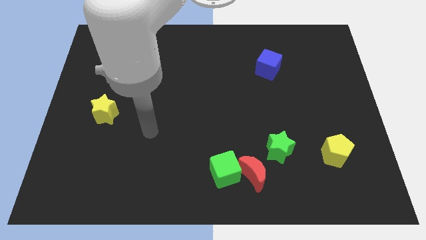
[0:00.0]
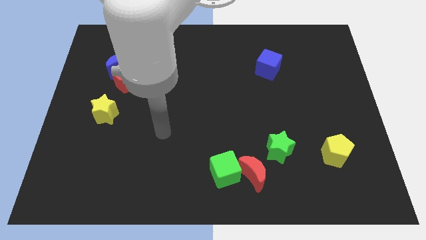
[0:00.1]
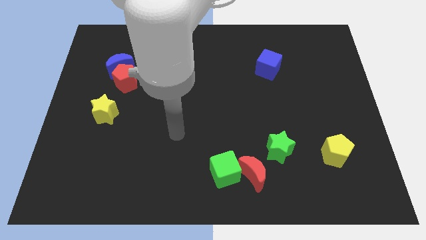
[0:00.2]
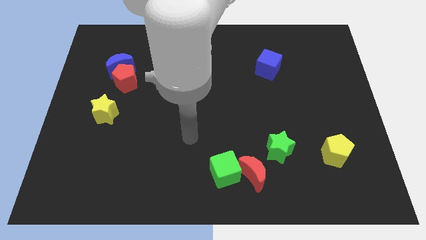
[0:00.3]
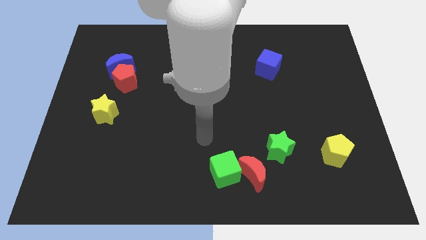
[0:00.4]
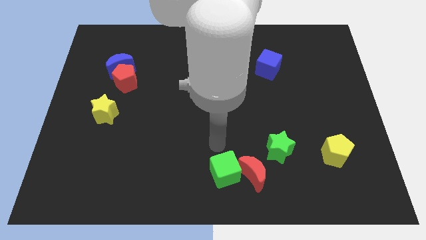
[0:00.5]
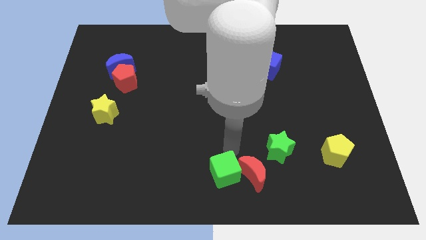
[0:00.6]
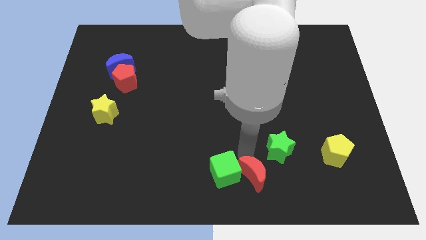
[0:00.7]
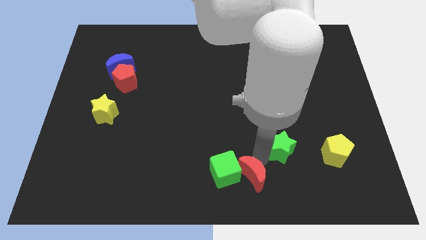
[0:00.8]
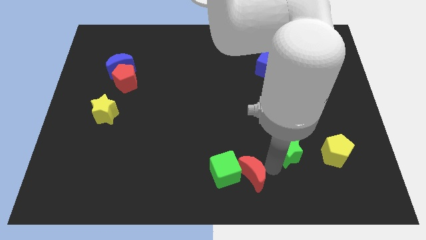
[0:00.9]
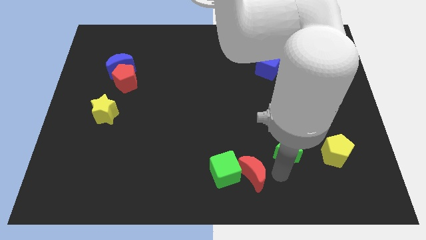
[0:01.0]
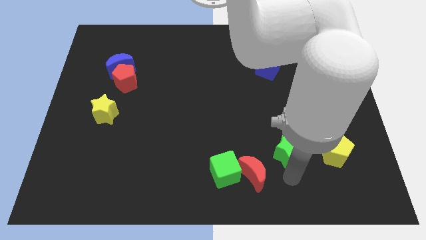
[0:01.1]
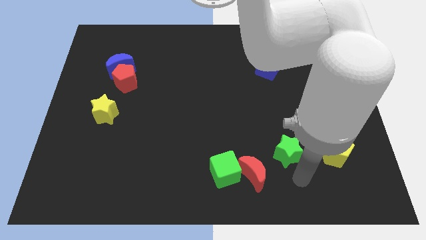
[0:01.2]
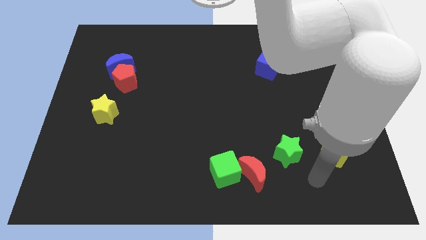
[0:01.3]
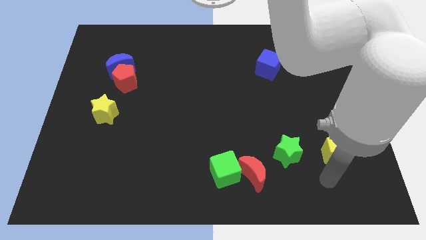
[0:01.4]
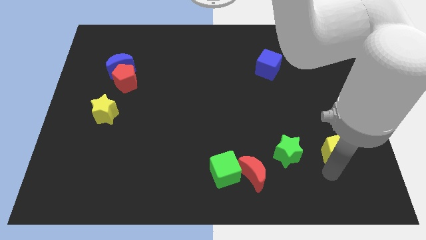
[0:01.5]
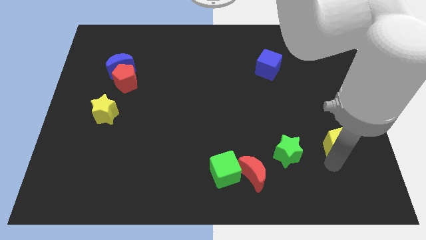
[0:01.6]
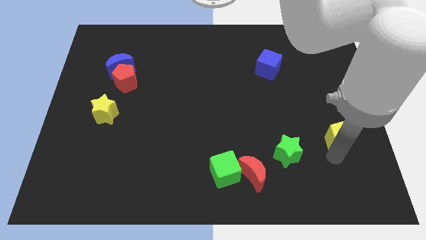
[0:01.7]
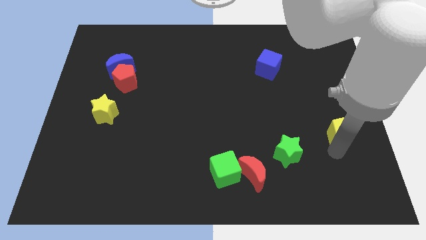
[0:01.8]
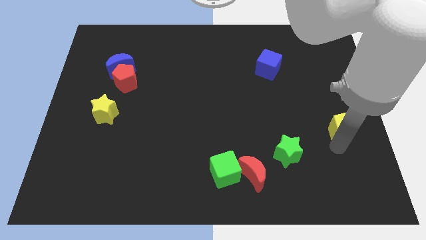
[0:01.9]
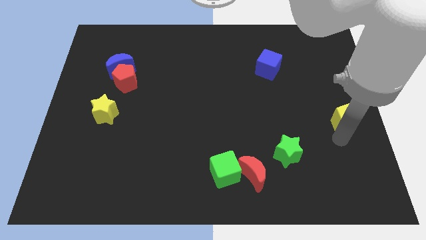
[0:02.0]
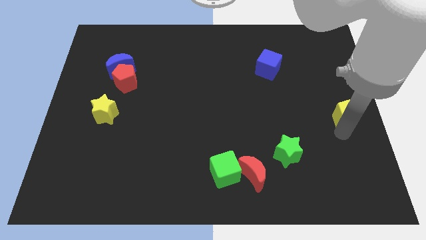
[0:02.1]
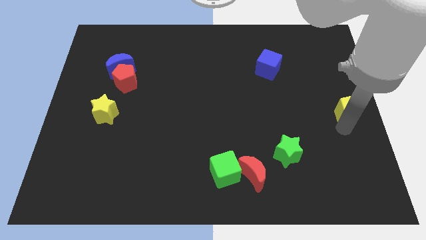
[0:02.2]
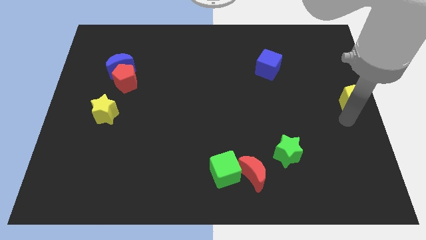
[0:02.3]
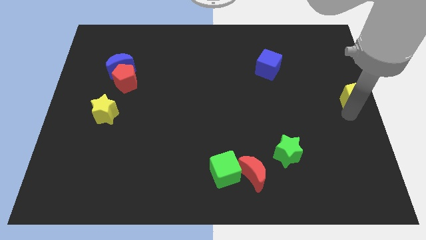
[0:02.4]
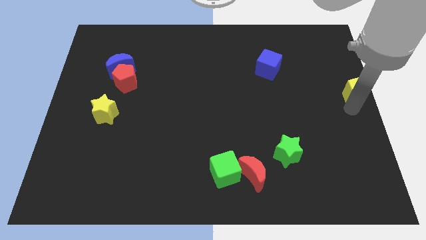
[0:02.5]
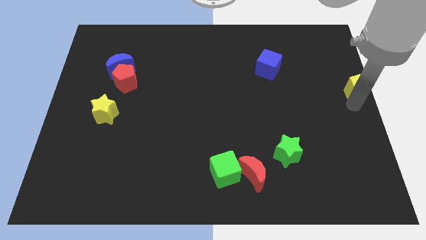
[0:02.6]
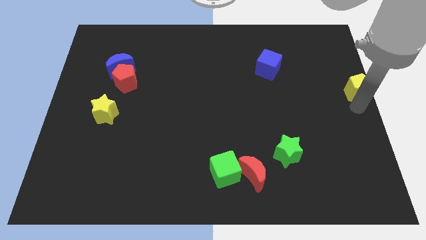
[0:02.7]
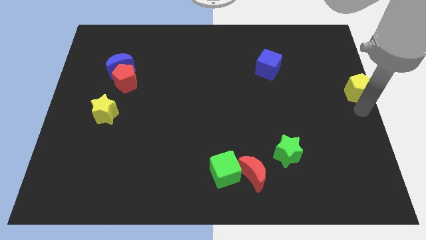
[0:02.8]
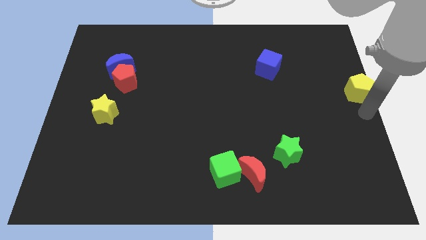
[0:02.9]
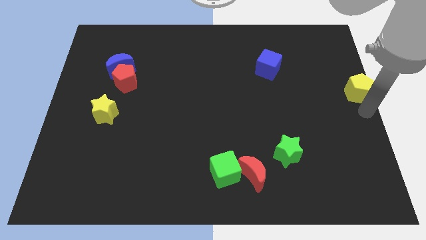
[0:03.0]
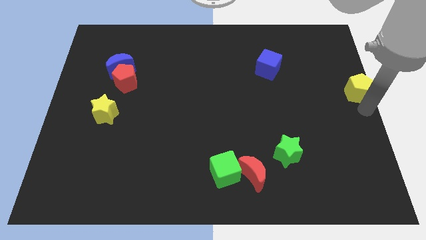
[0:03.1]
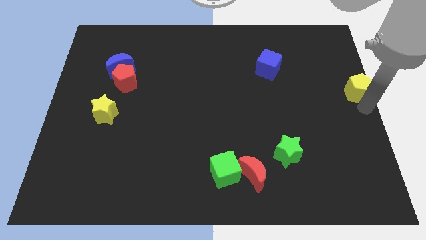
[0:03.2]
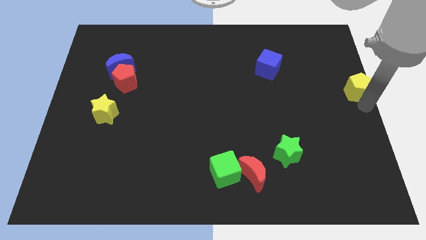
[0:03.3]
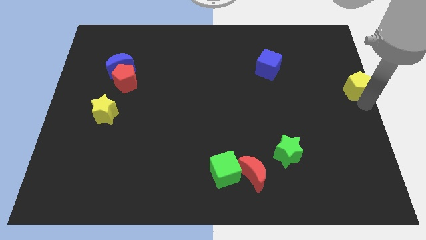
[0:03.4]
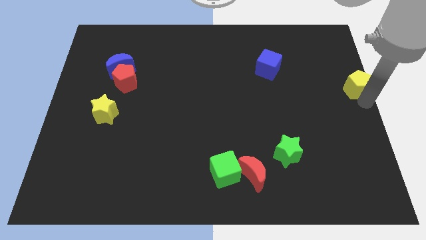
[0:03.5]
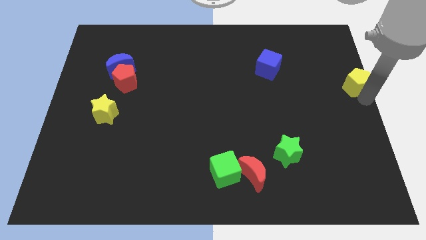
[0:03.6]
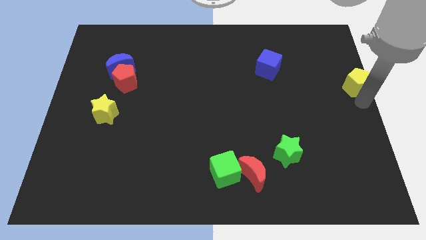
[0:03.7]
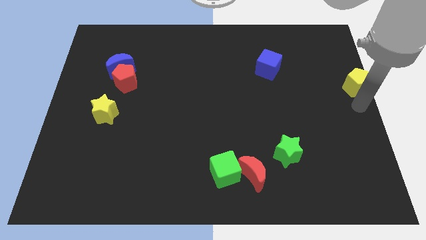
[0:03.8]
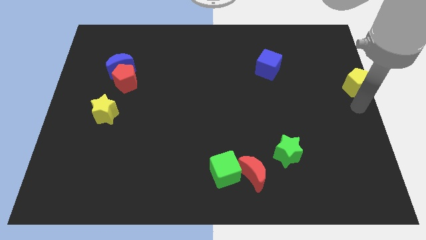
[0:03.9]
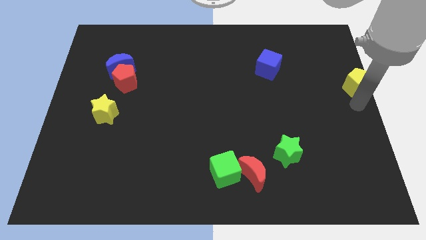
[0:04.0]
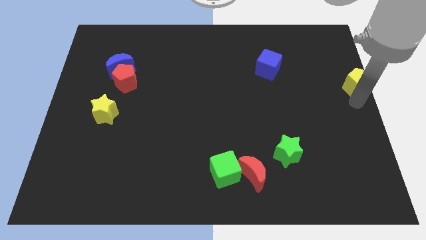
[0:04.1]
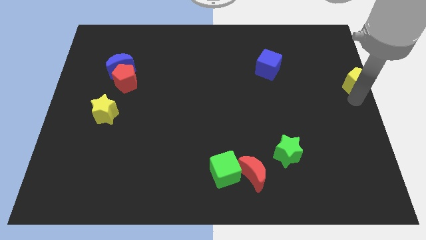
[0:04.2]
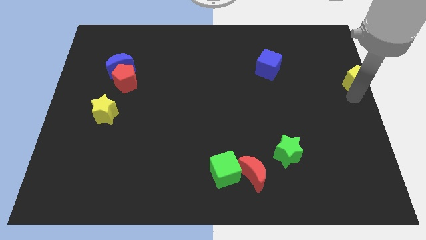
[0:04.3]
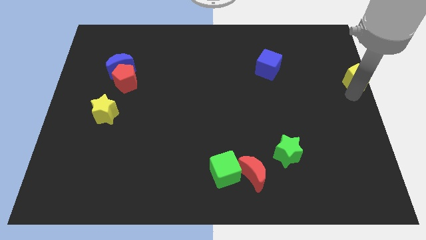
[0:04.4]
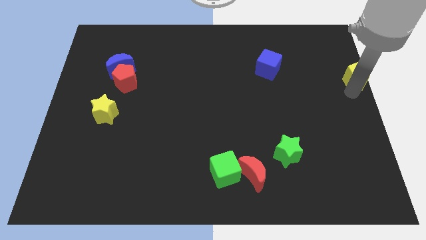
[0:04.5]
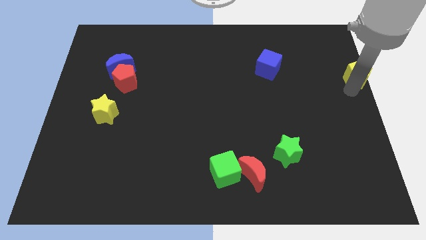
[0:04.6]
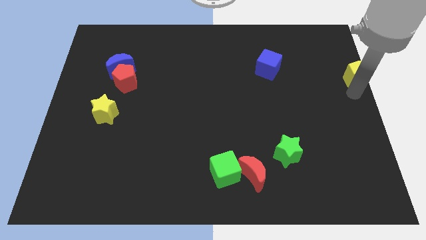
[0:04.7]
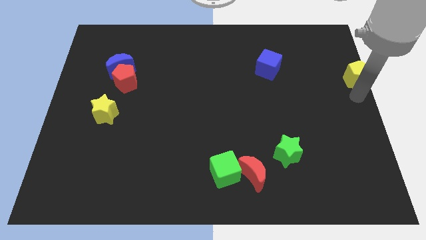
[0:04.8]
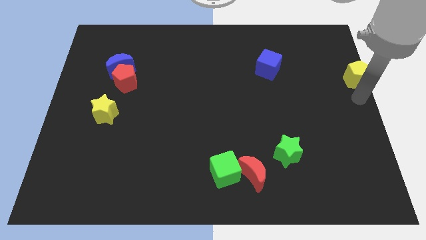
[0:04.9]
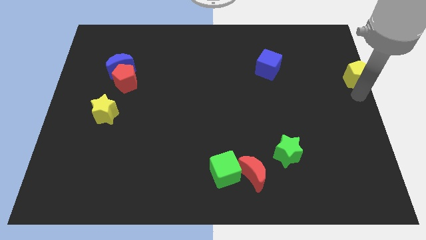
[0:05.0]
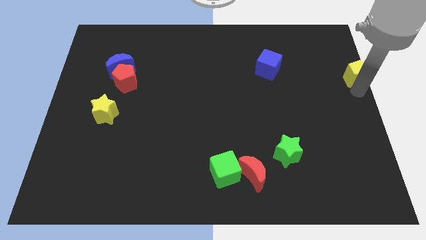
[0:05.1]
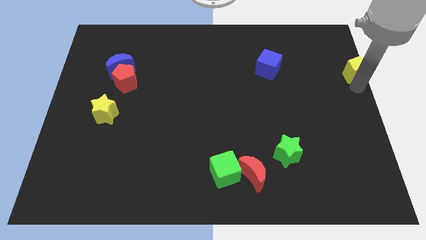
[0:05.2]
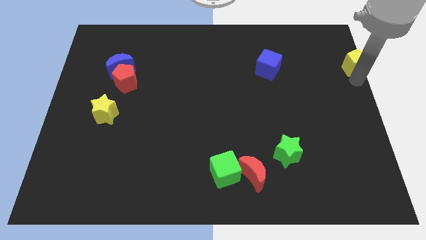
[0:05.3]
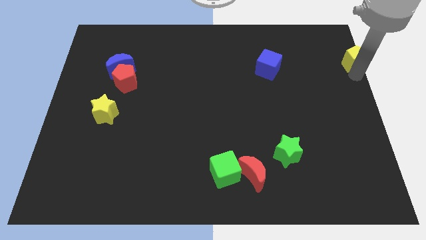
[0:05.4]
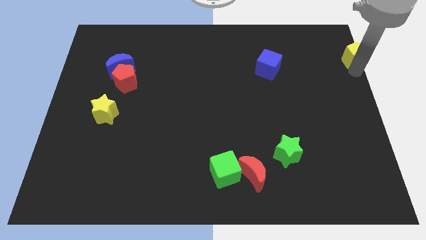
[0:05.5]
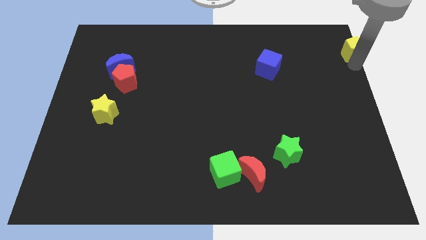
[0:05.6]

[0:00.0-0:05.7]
put the yellow pentagon to the top right

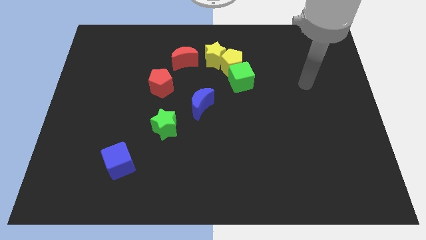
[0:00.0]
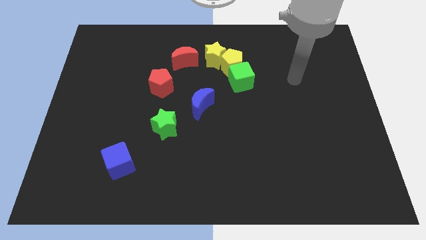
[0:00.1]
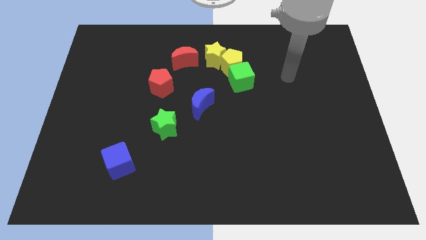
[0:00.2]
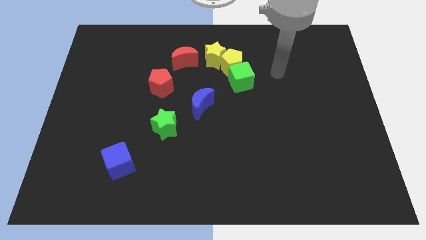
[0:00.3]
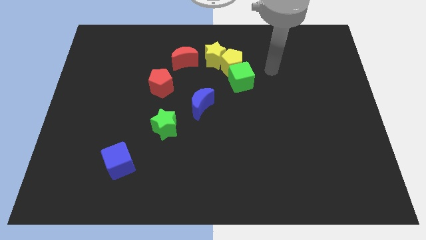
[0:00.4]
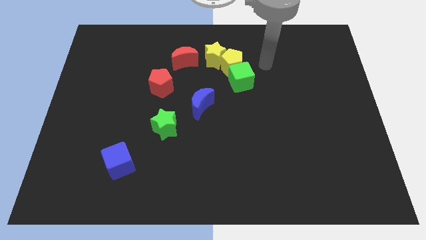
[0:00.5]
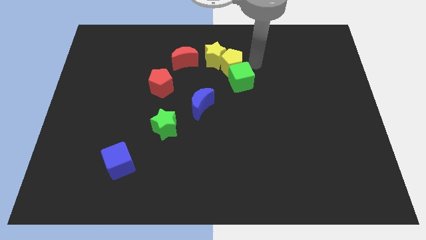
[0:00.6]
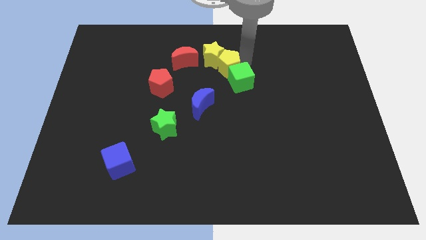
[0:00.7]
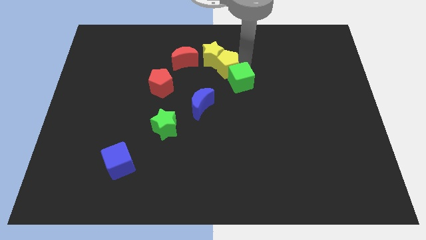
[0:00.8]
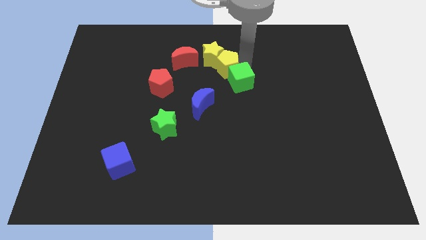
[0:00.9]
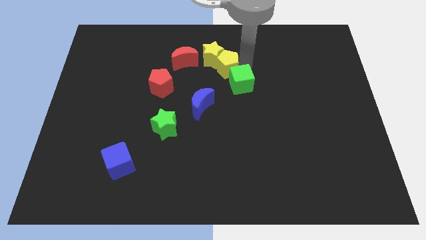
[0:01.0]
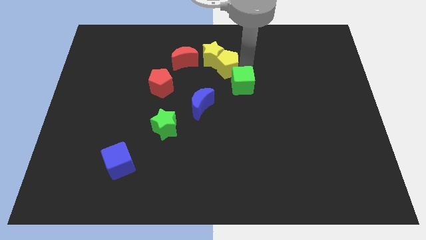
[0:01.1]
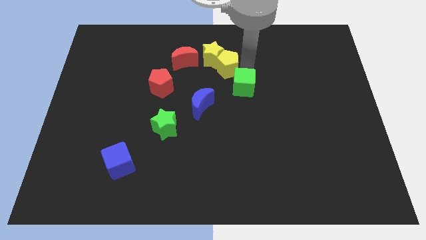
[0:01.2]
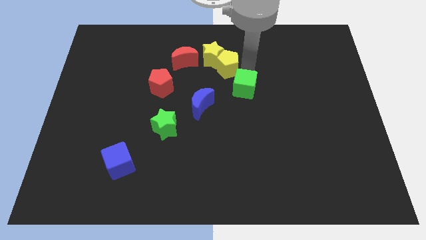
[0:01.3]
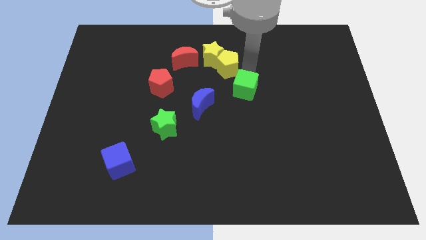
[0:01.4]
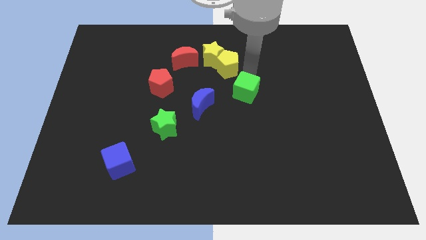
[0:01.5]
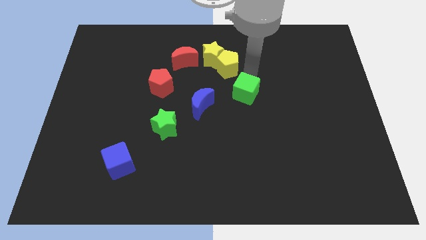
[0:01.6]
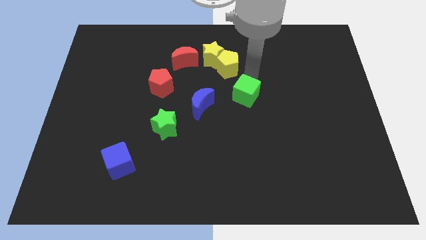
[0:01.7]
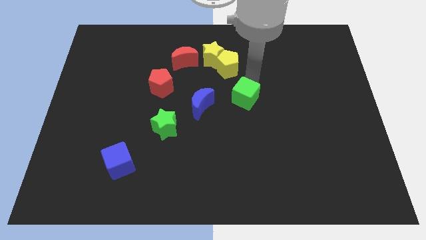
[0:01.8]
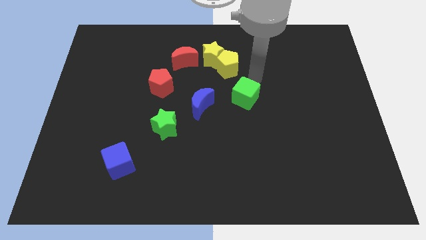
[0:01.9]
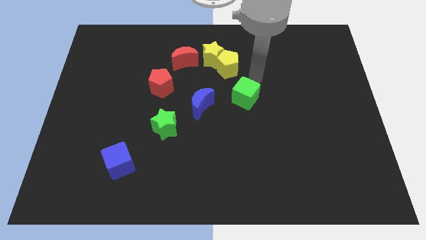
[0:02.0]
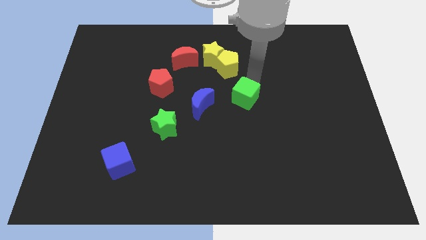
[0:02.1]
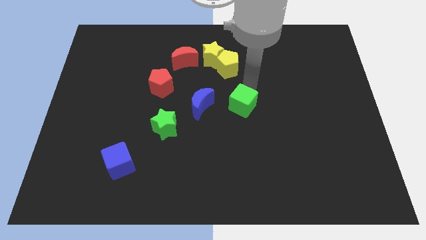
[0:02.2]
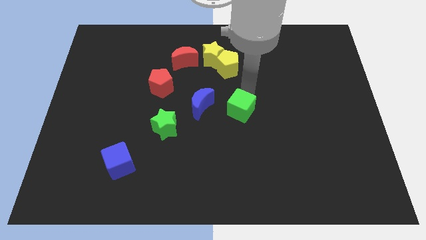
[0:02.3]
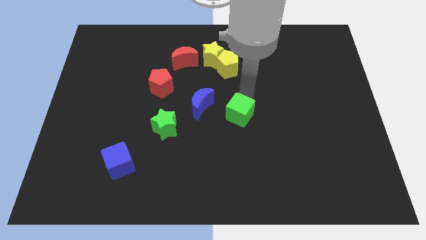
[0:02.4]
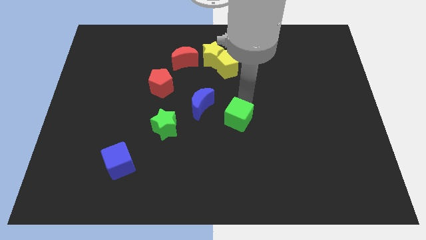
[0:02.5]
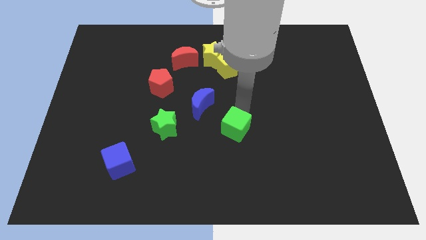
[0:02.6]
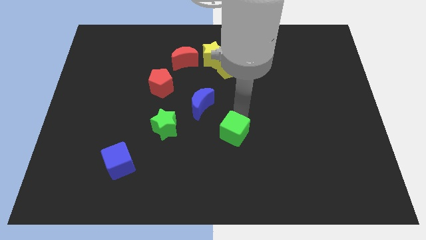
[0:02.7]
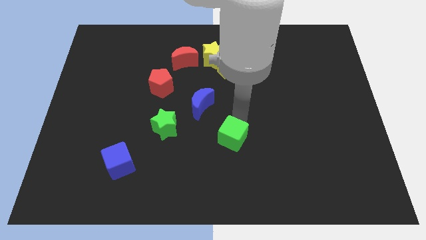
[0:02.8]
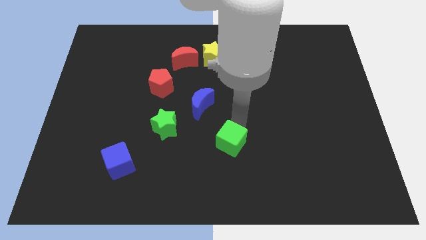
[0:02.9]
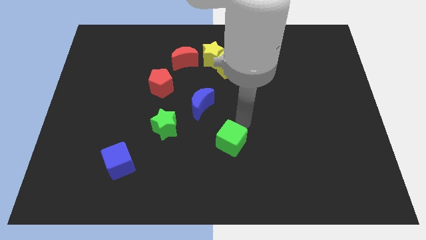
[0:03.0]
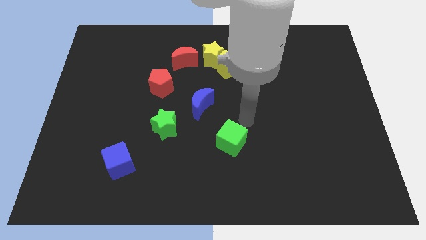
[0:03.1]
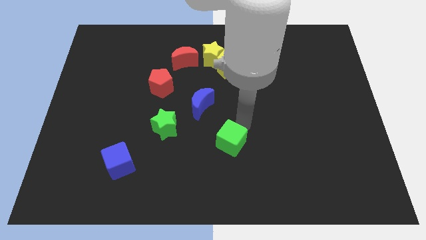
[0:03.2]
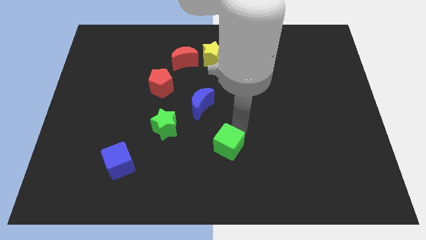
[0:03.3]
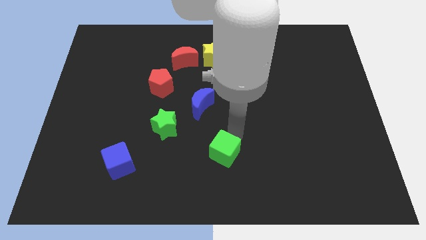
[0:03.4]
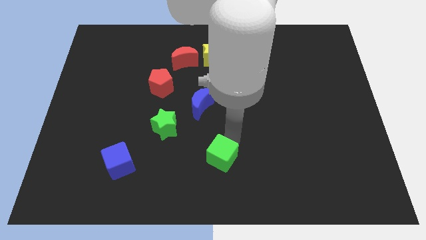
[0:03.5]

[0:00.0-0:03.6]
put the green cube to the bottom side
